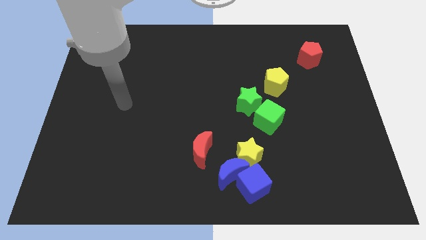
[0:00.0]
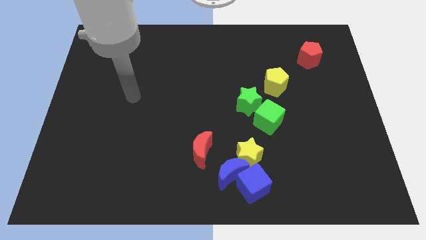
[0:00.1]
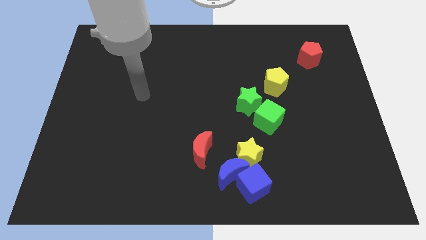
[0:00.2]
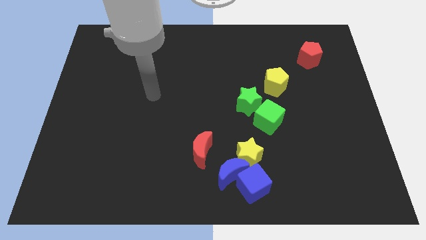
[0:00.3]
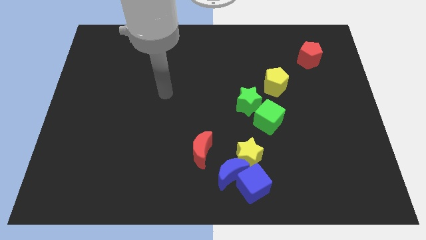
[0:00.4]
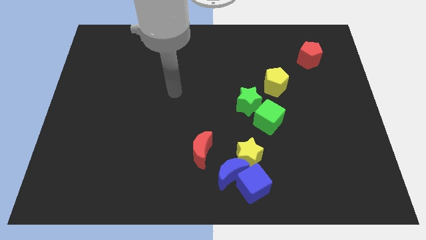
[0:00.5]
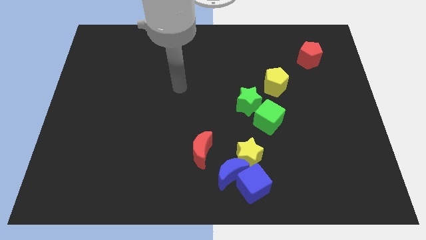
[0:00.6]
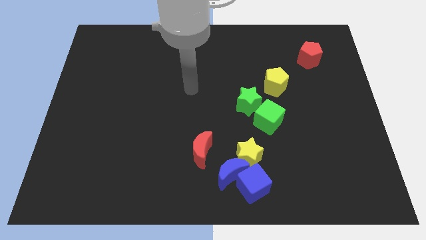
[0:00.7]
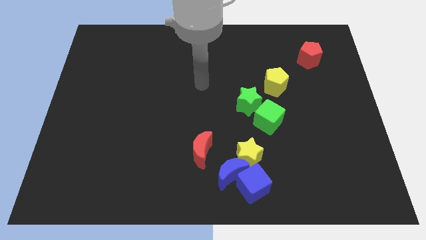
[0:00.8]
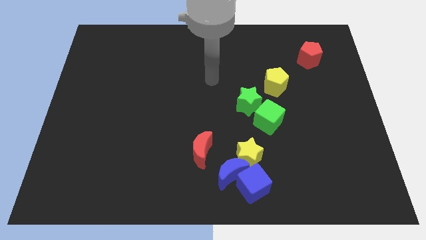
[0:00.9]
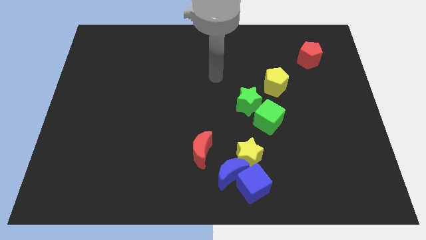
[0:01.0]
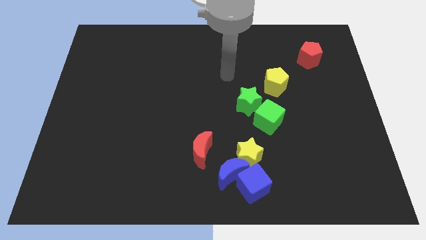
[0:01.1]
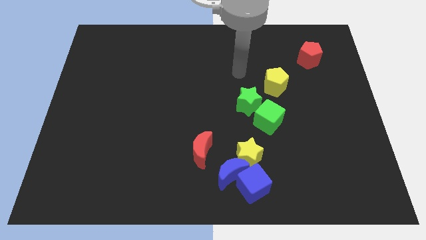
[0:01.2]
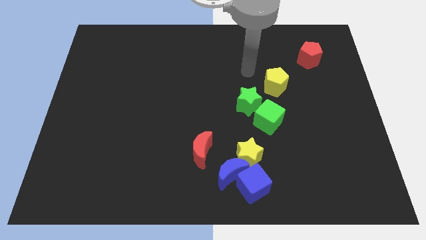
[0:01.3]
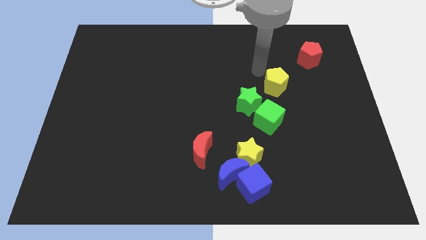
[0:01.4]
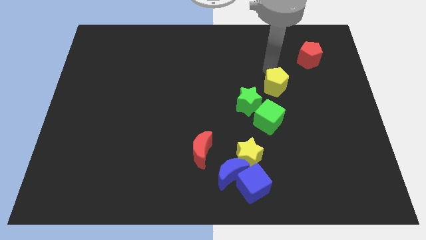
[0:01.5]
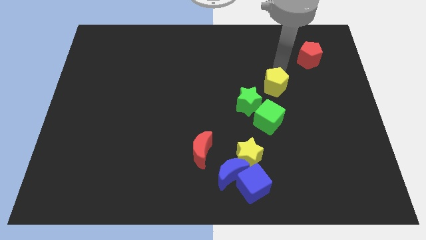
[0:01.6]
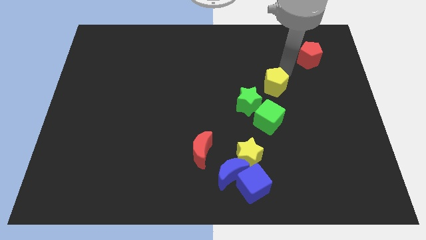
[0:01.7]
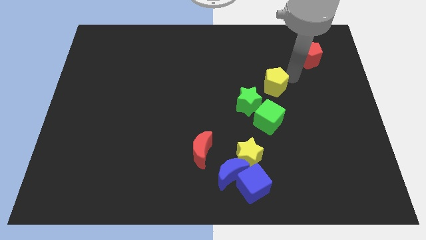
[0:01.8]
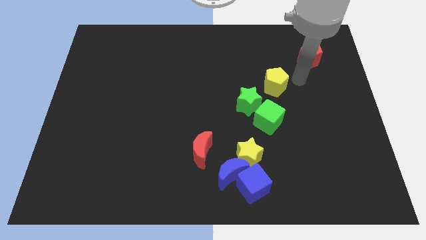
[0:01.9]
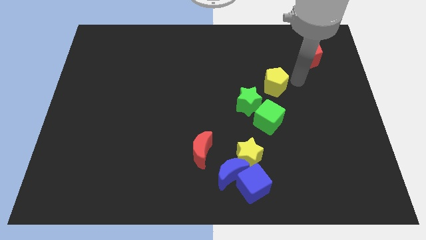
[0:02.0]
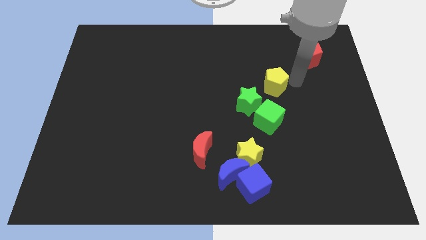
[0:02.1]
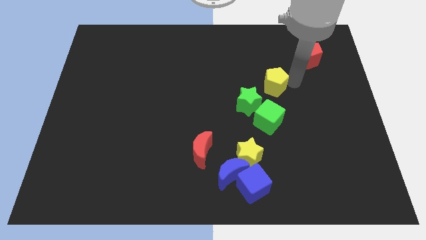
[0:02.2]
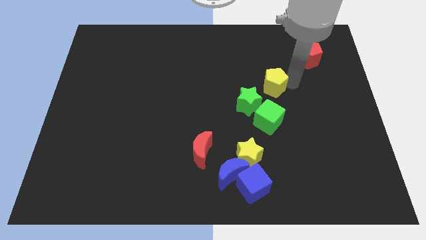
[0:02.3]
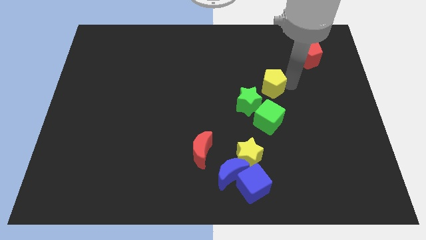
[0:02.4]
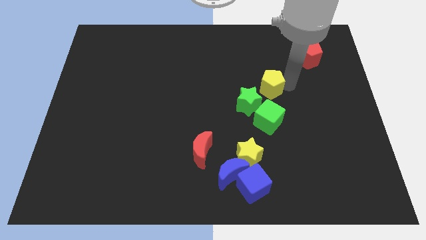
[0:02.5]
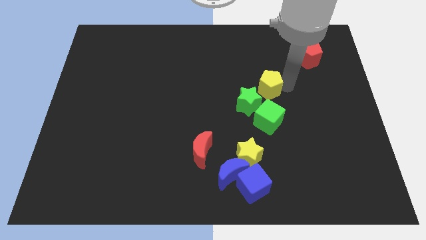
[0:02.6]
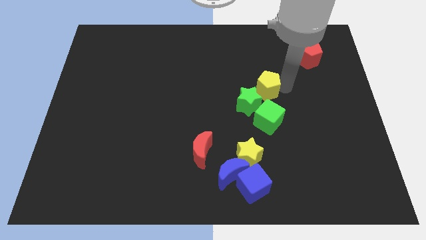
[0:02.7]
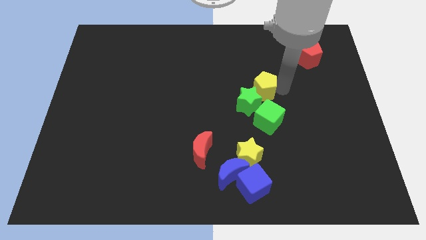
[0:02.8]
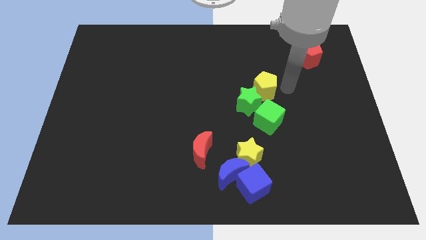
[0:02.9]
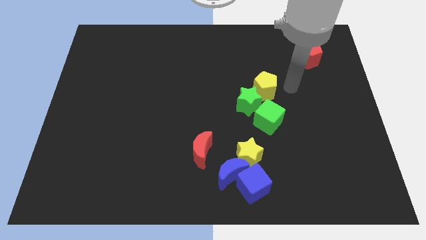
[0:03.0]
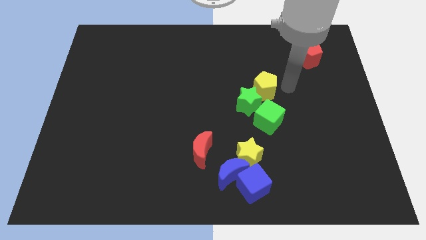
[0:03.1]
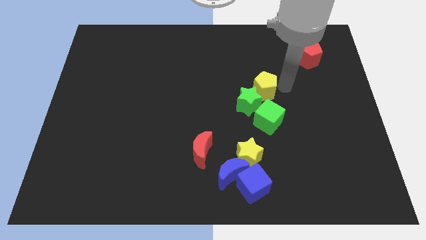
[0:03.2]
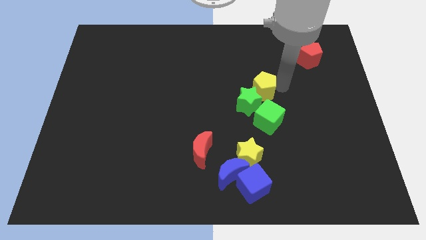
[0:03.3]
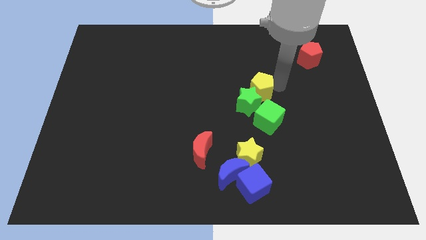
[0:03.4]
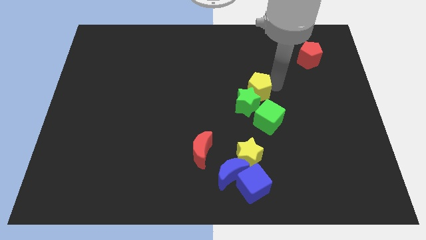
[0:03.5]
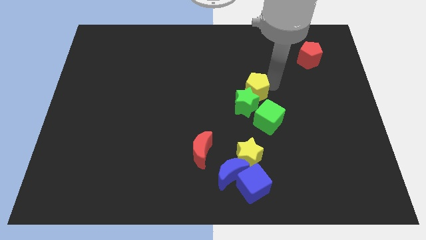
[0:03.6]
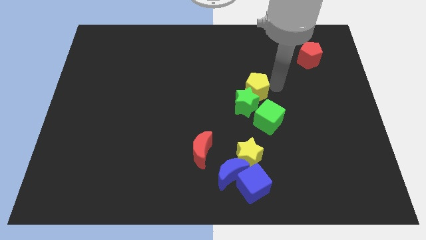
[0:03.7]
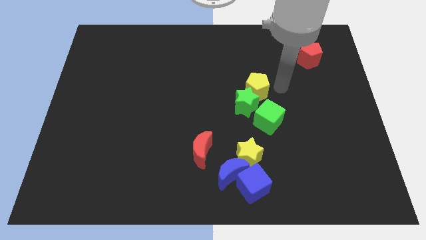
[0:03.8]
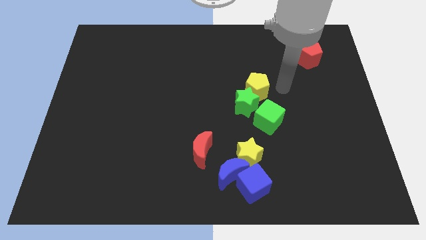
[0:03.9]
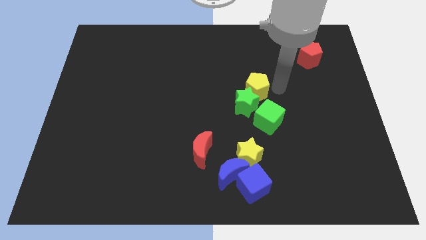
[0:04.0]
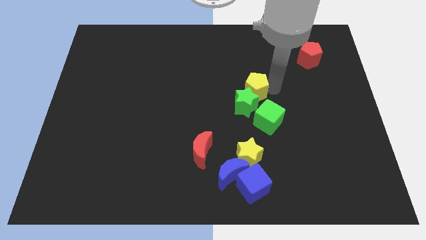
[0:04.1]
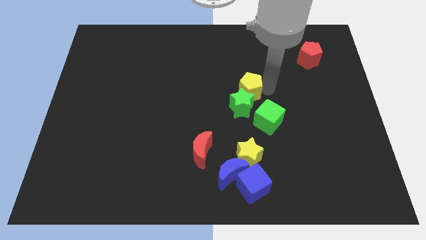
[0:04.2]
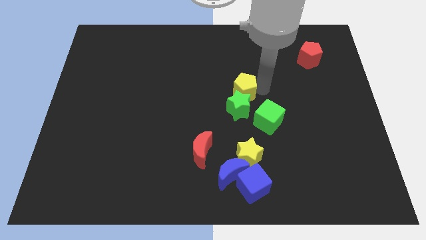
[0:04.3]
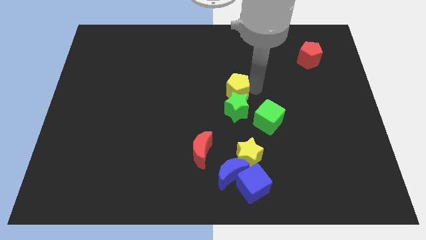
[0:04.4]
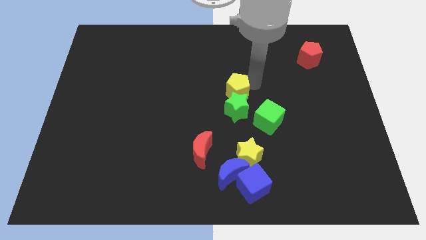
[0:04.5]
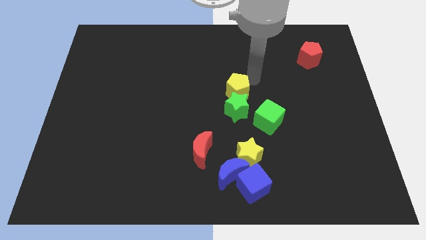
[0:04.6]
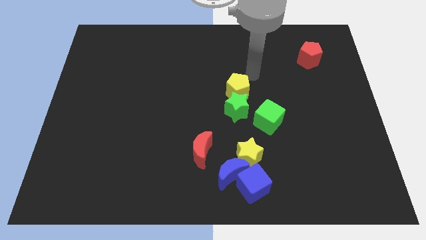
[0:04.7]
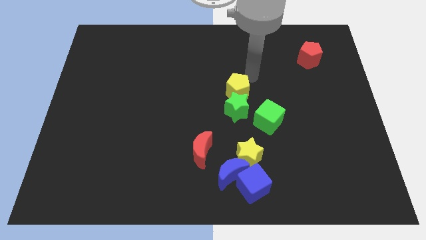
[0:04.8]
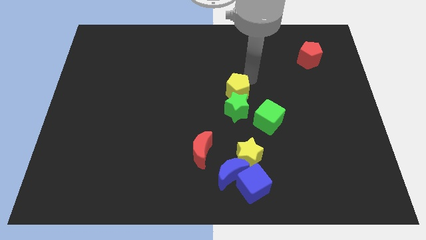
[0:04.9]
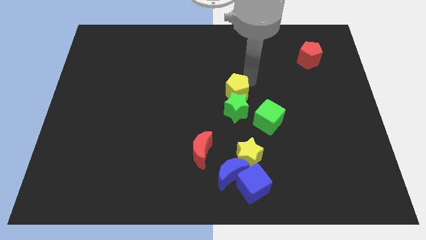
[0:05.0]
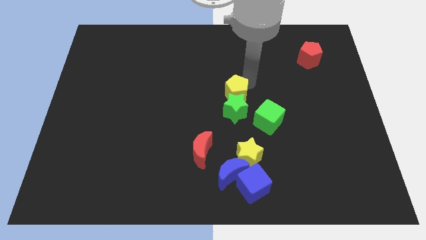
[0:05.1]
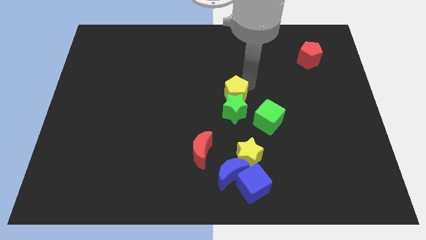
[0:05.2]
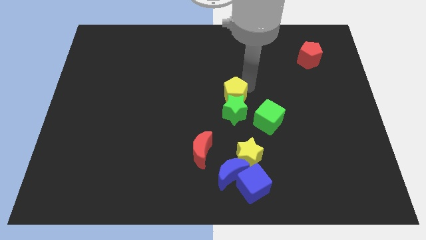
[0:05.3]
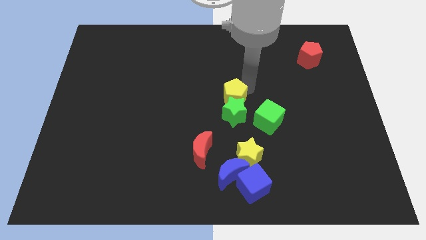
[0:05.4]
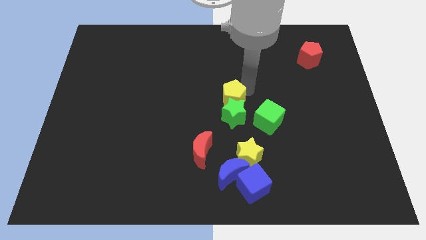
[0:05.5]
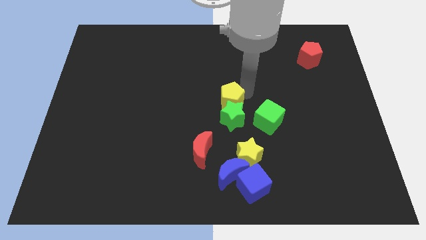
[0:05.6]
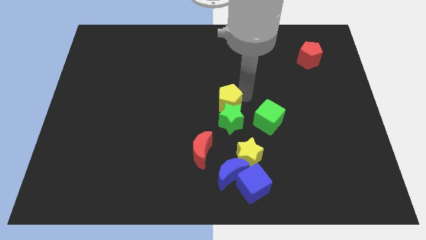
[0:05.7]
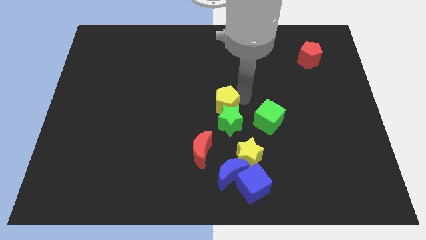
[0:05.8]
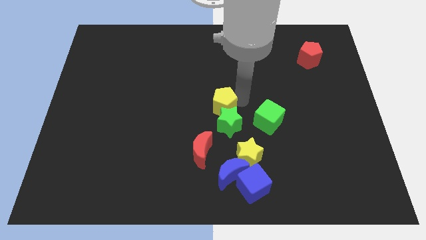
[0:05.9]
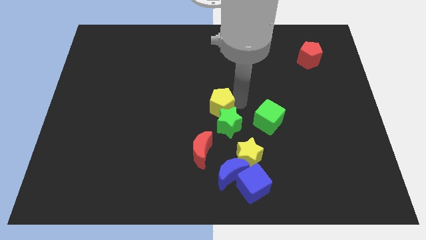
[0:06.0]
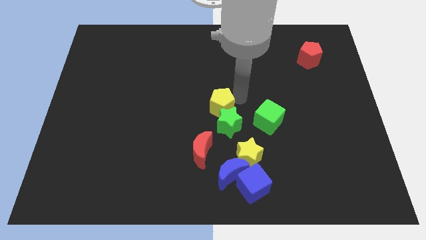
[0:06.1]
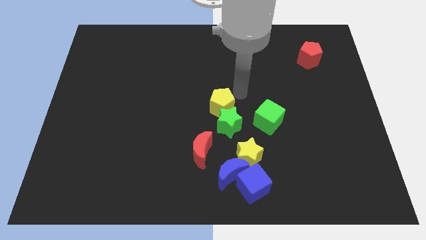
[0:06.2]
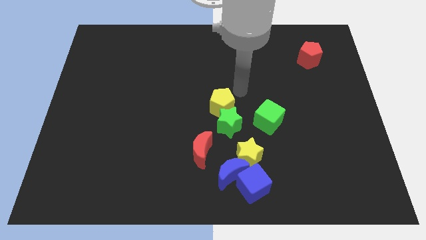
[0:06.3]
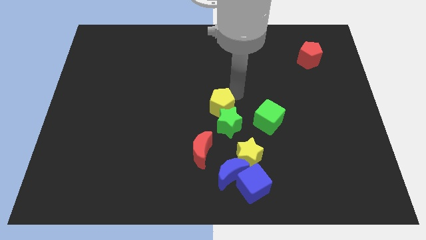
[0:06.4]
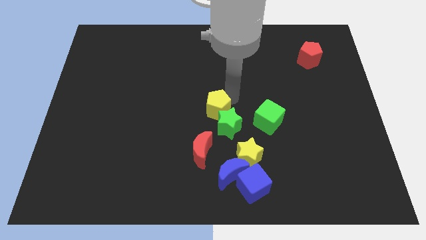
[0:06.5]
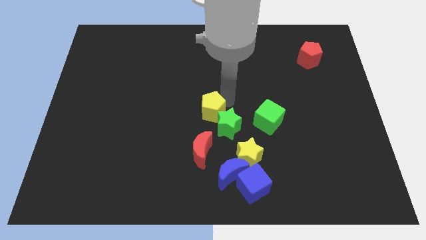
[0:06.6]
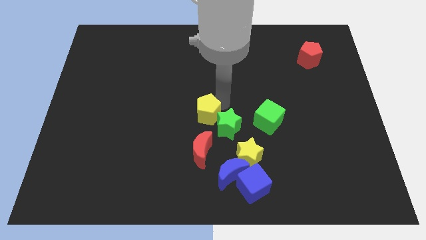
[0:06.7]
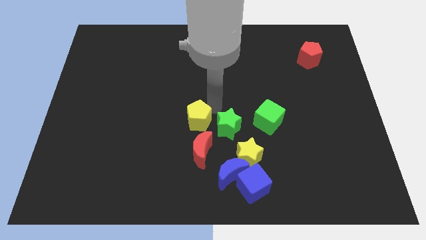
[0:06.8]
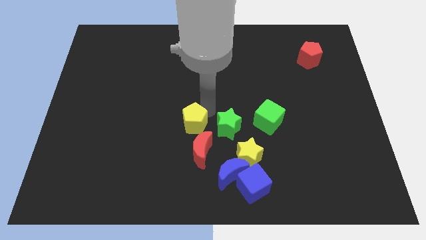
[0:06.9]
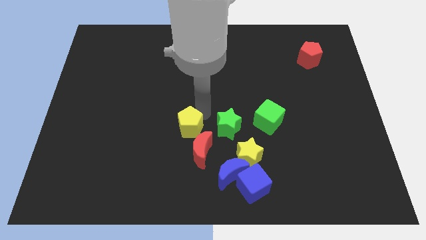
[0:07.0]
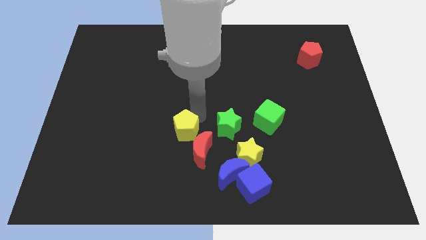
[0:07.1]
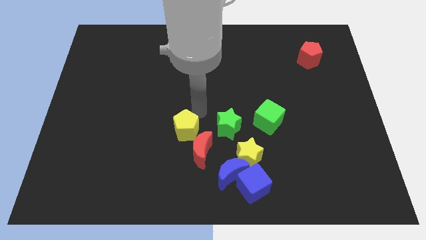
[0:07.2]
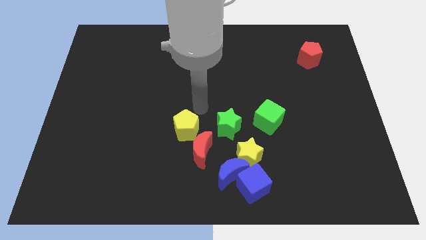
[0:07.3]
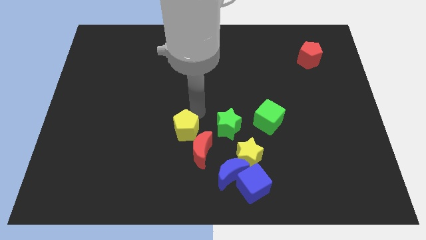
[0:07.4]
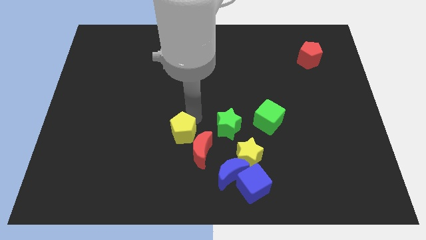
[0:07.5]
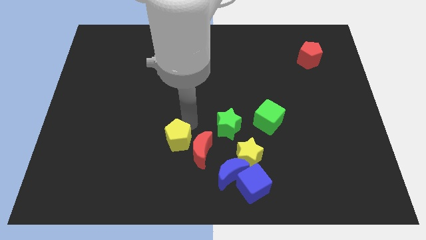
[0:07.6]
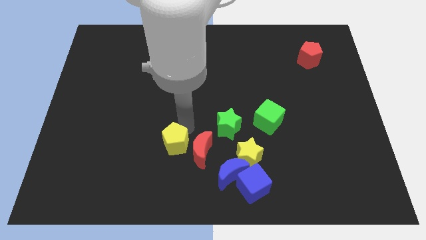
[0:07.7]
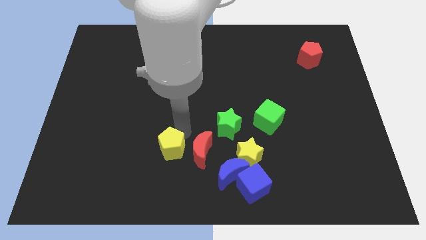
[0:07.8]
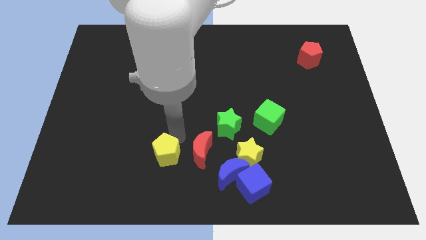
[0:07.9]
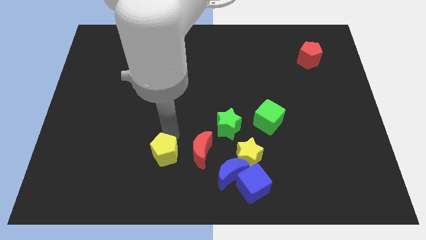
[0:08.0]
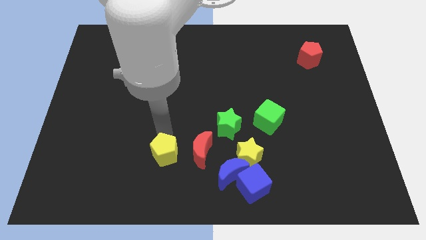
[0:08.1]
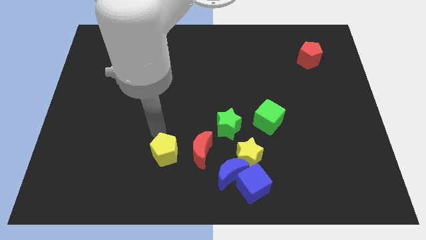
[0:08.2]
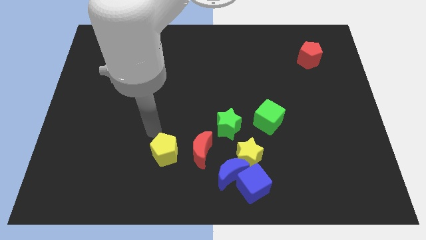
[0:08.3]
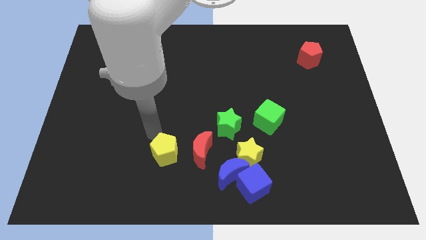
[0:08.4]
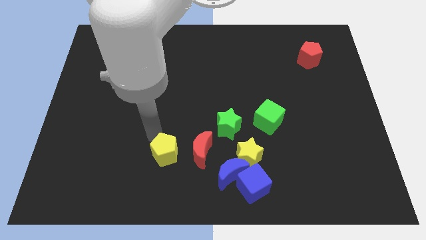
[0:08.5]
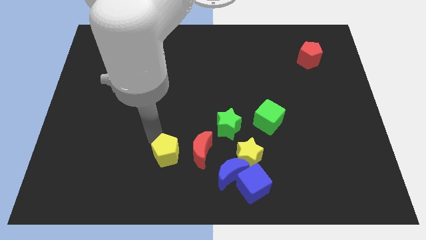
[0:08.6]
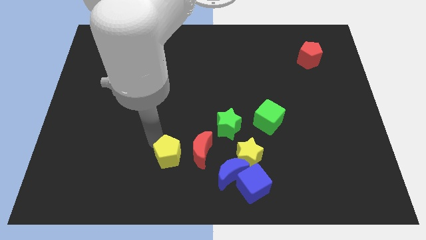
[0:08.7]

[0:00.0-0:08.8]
move the yellow pentagon to the left side of the blue moon
